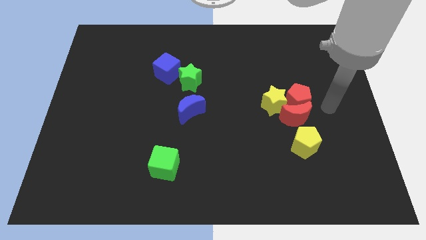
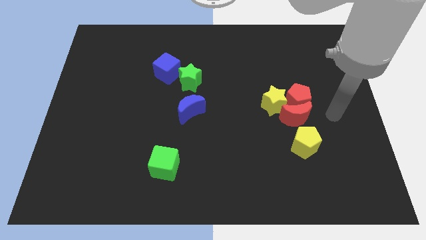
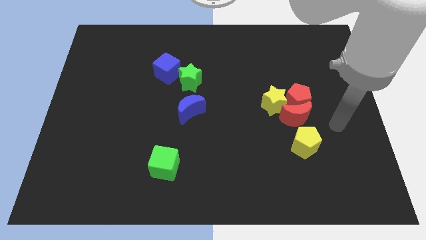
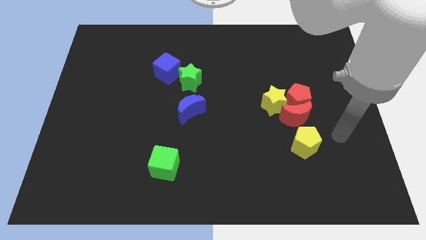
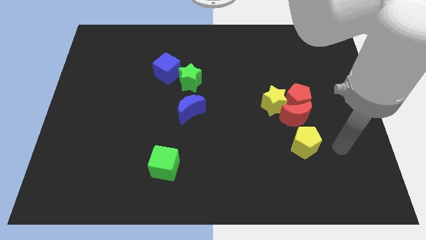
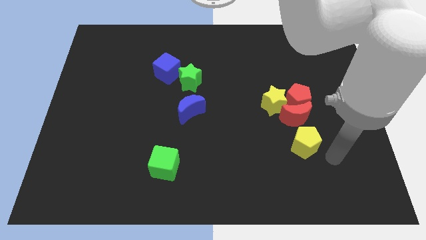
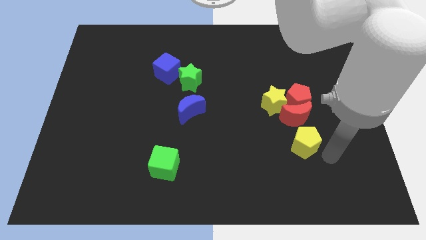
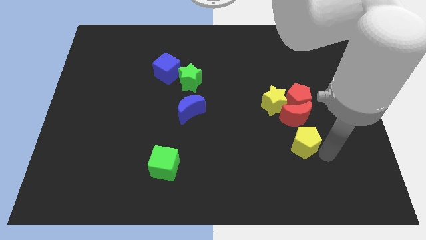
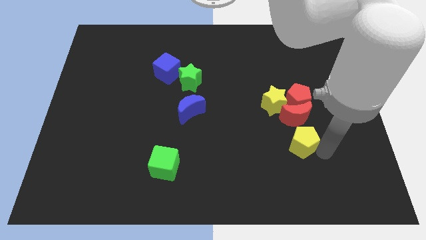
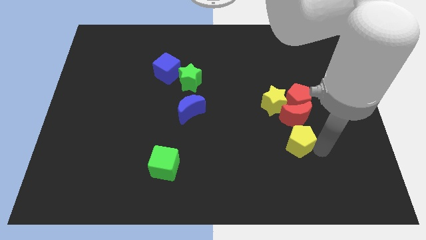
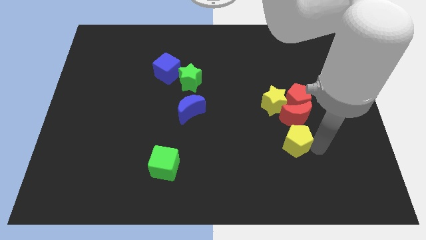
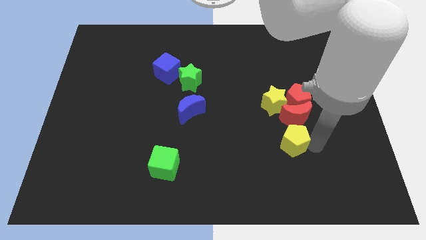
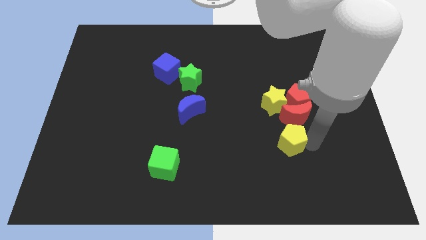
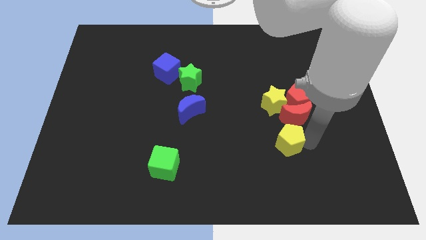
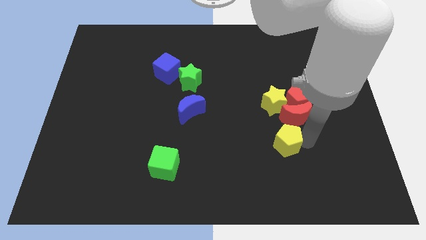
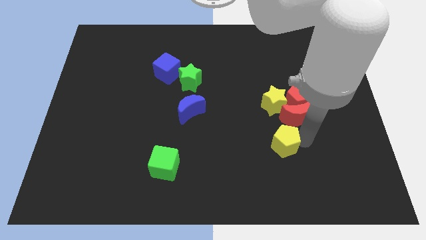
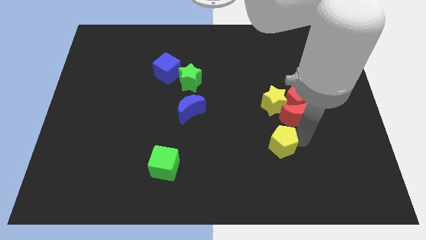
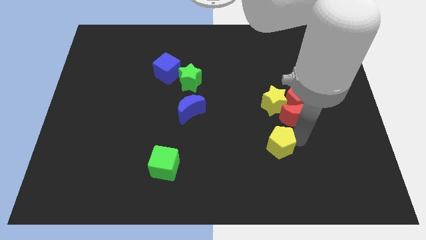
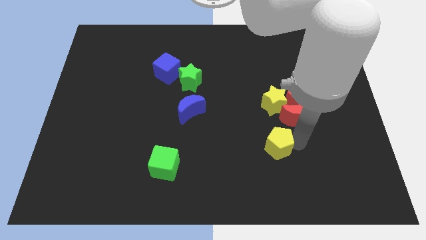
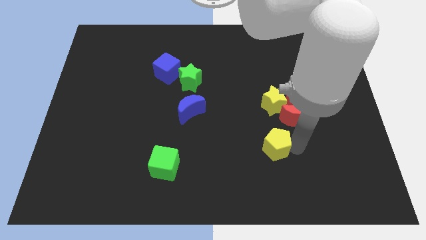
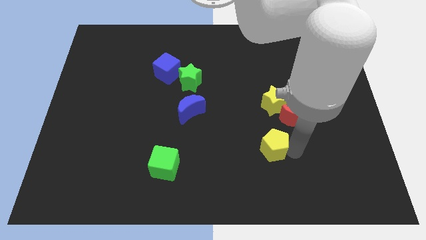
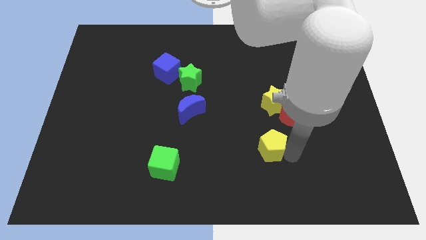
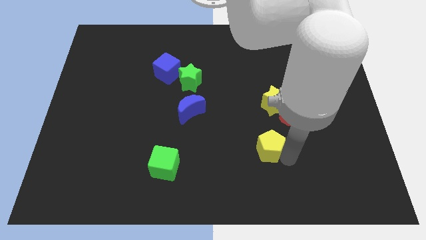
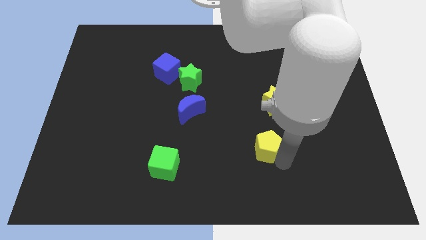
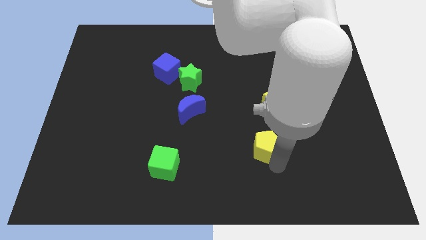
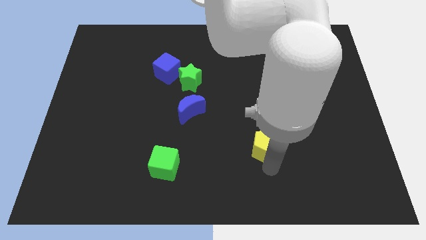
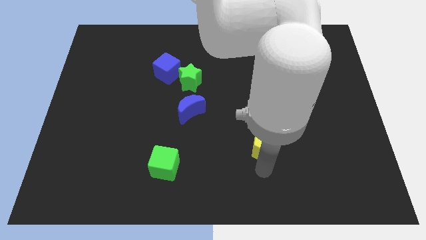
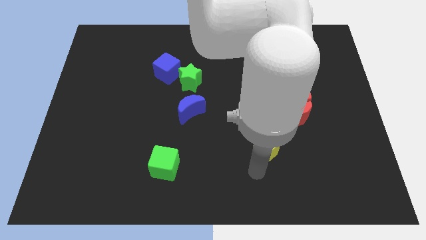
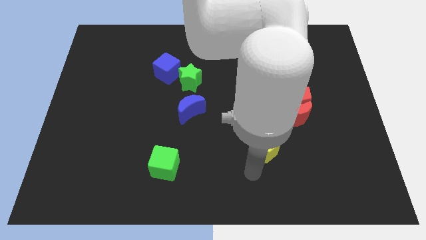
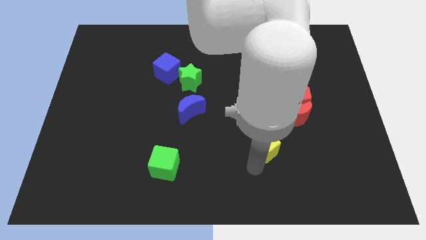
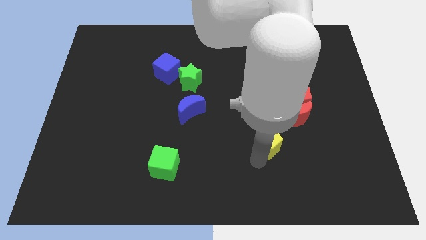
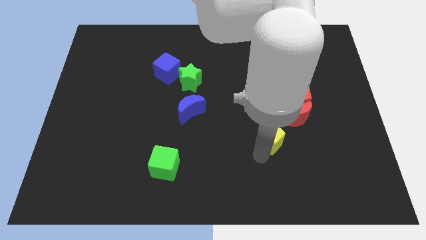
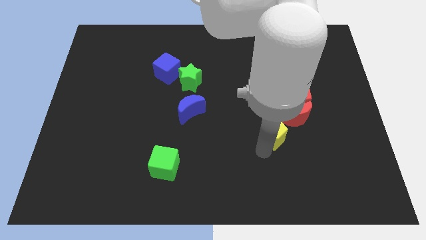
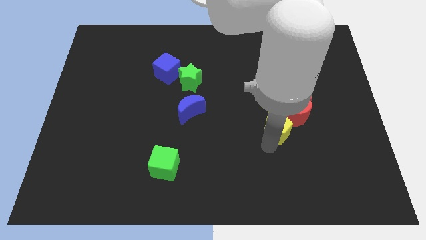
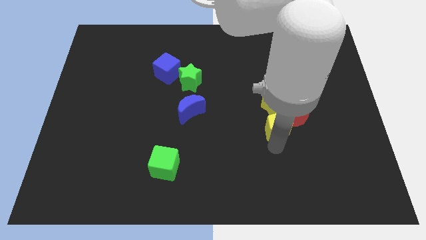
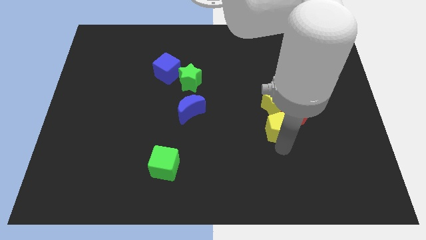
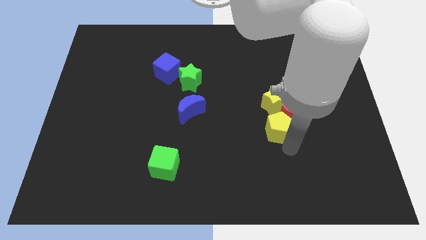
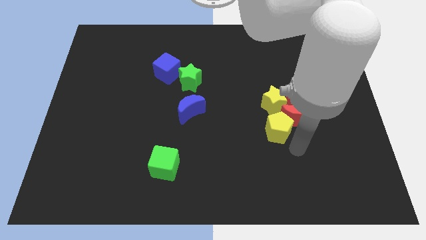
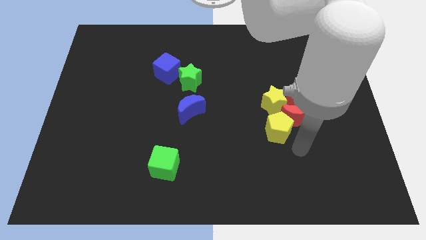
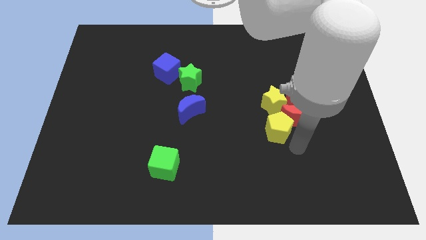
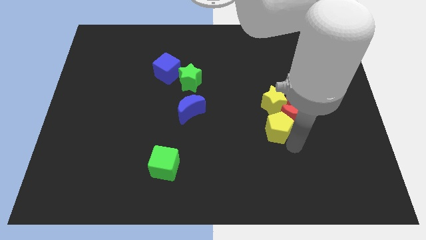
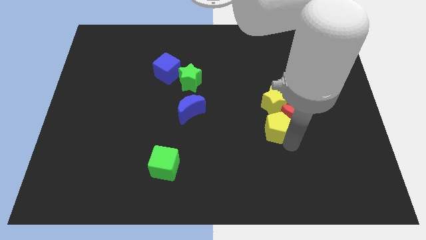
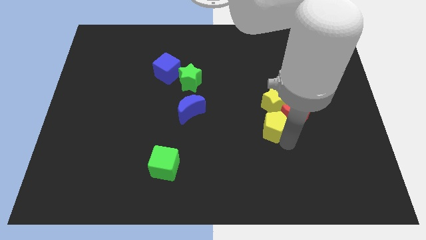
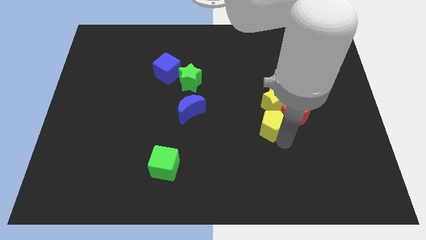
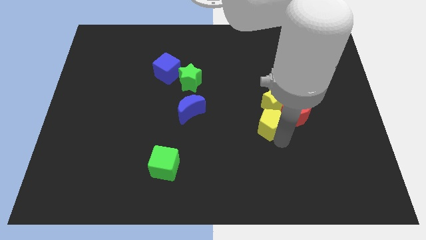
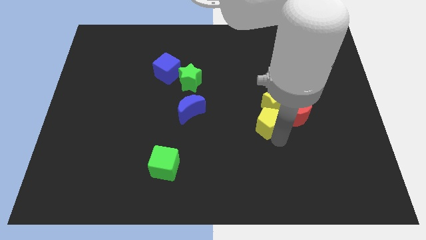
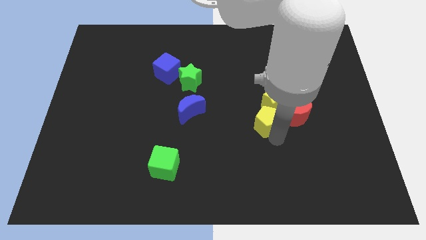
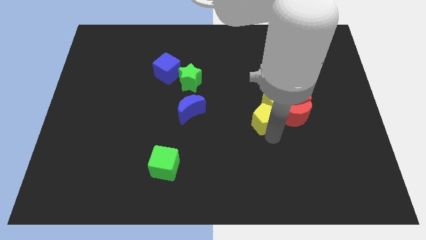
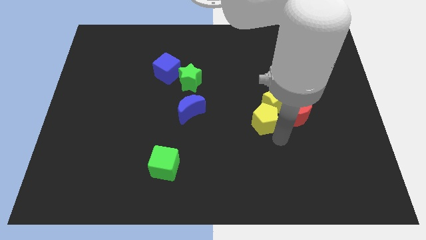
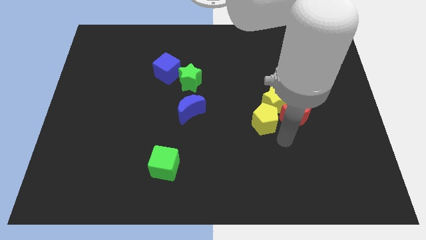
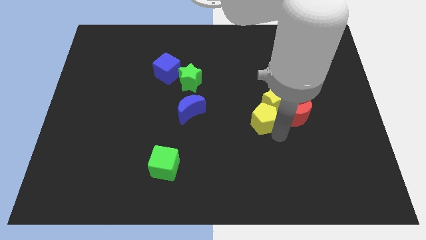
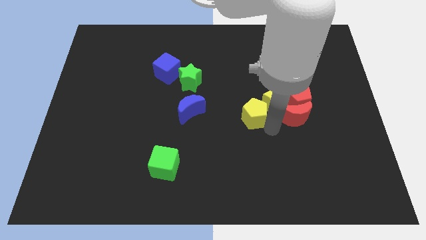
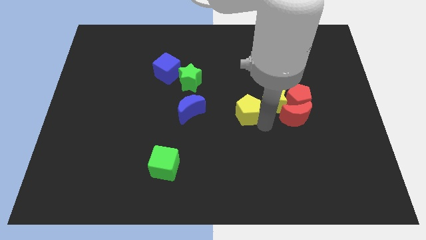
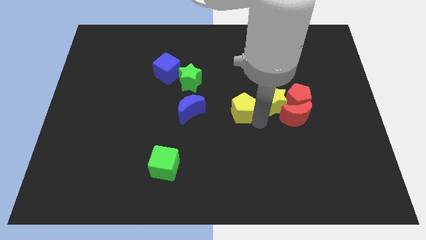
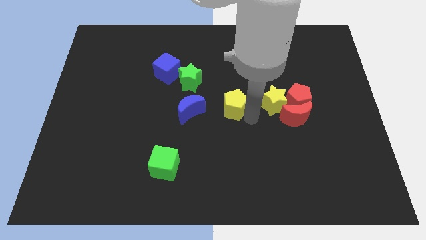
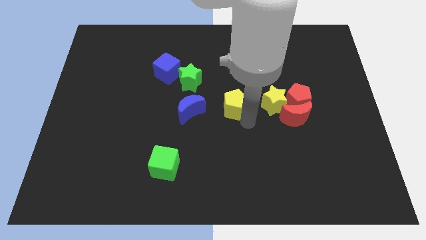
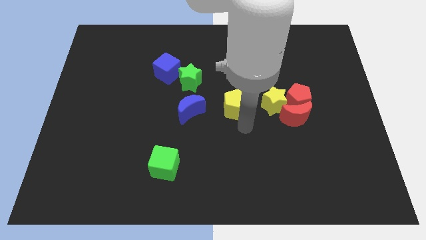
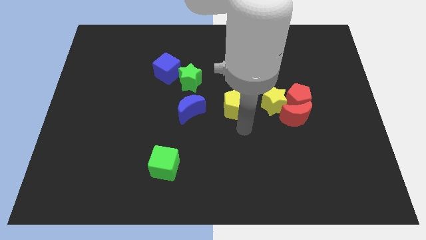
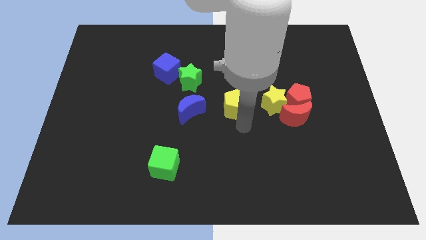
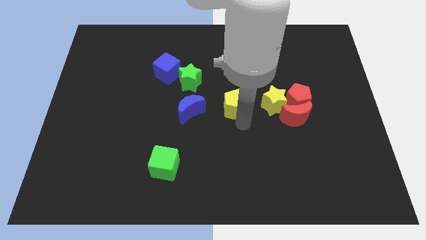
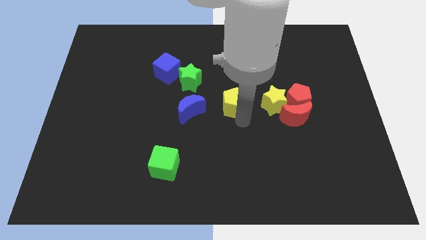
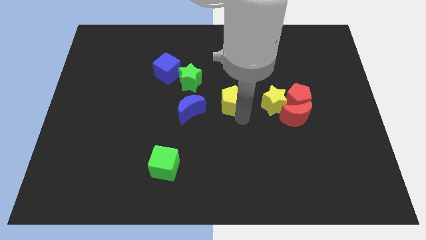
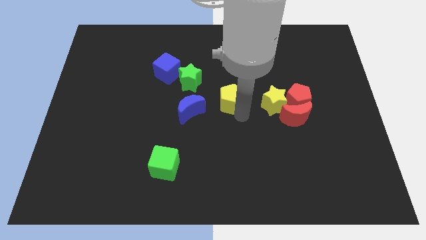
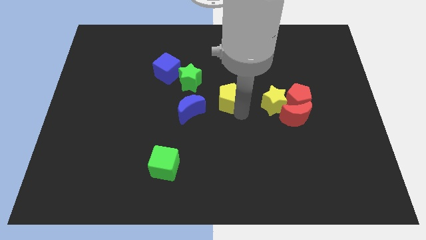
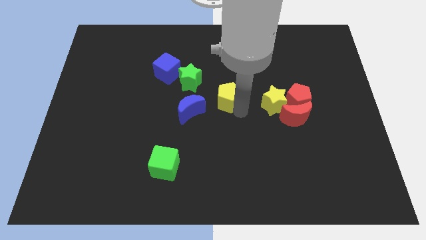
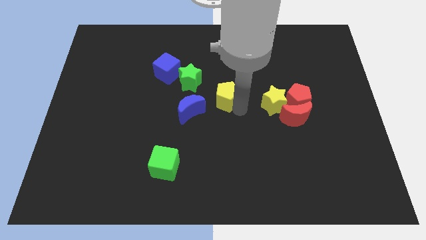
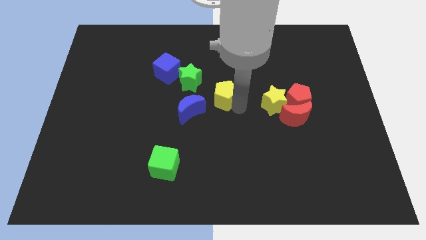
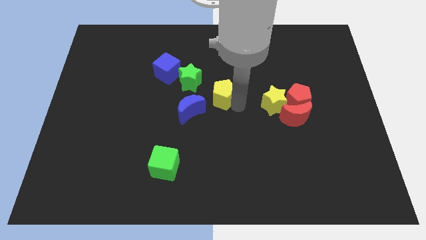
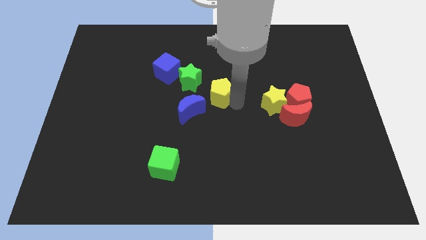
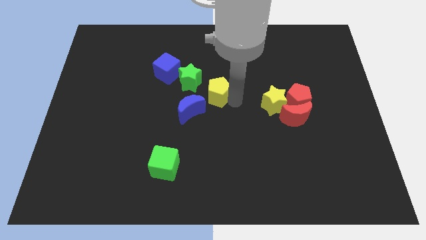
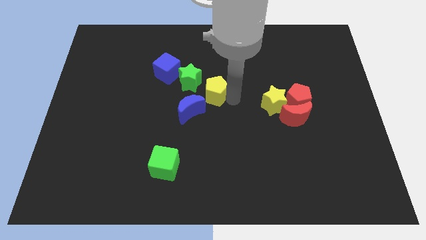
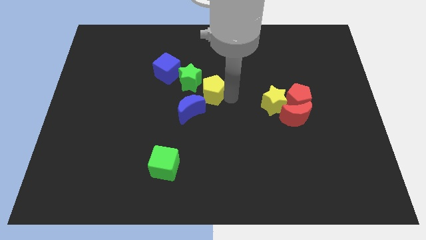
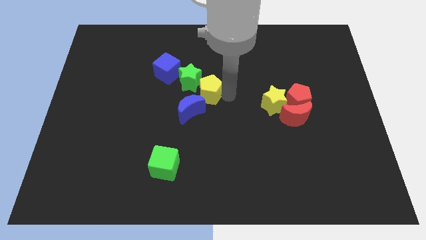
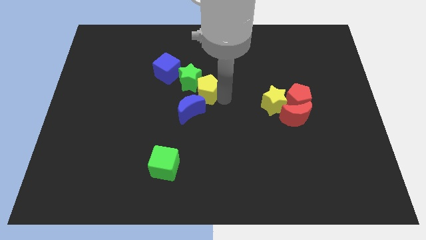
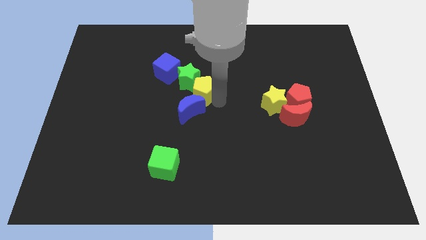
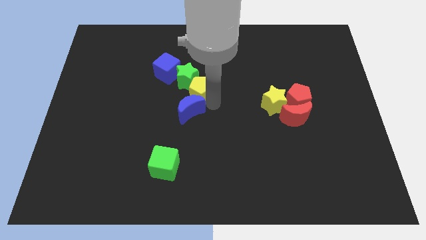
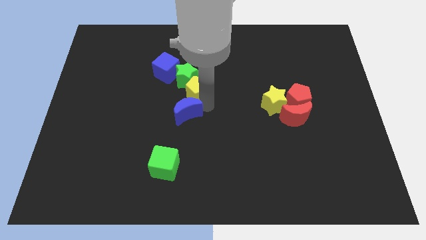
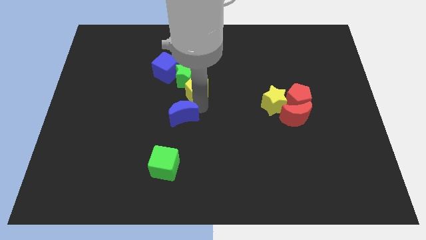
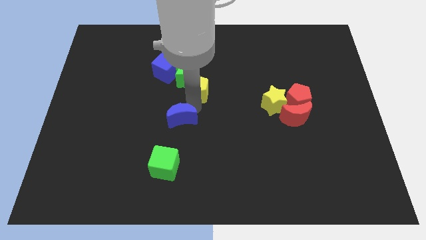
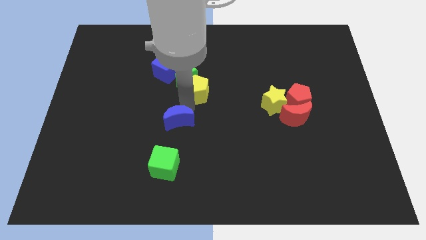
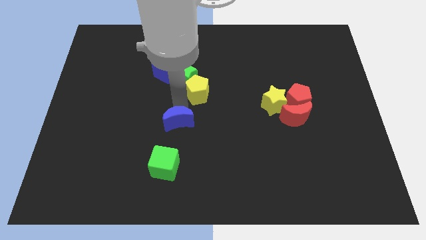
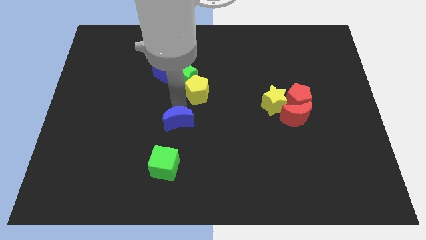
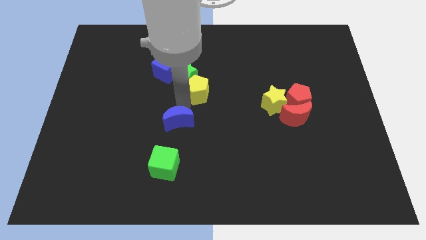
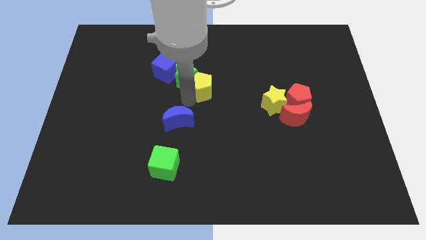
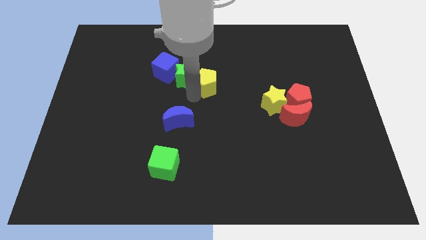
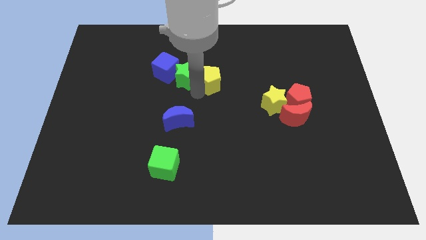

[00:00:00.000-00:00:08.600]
move the yellow pentagon diagonally up and to the right of the green star
